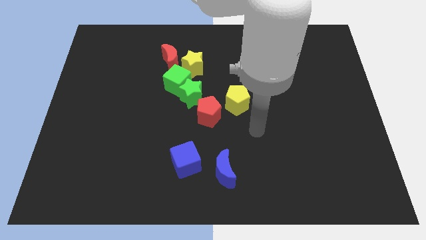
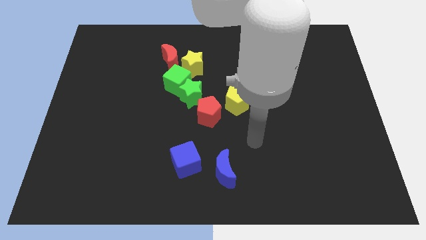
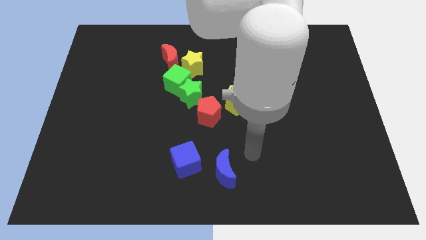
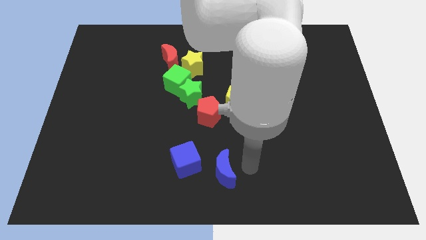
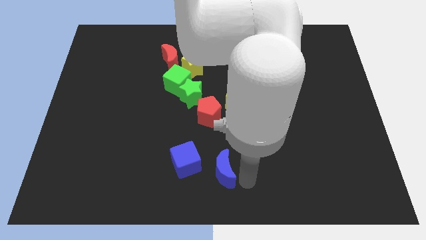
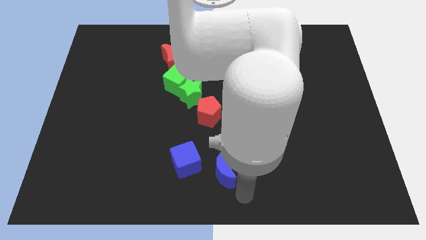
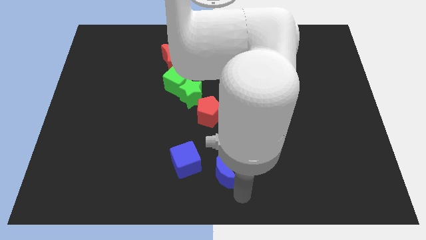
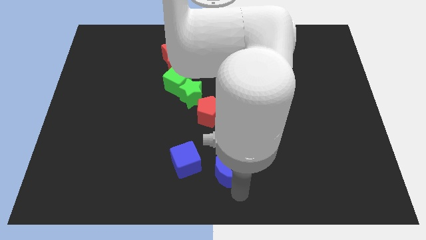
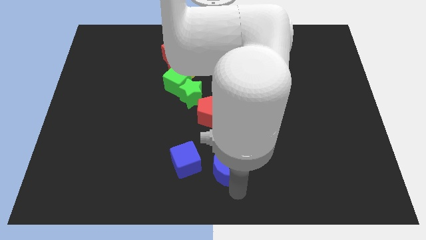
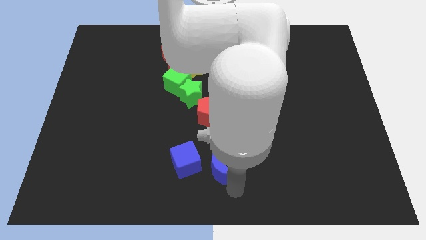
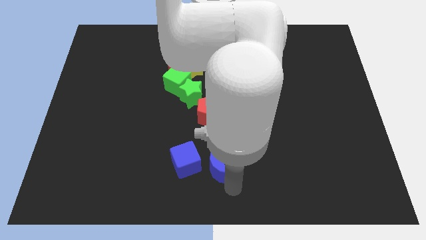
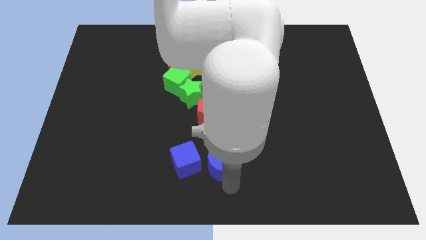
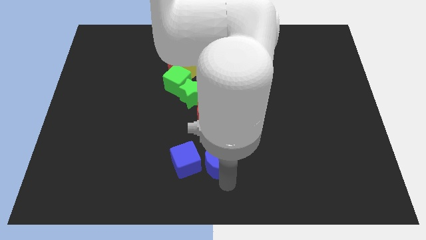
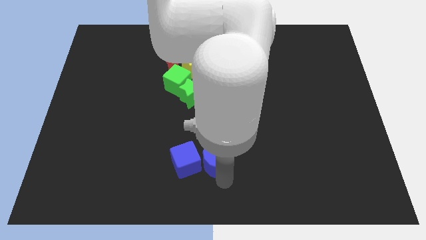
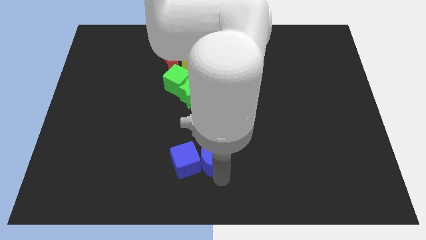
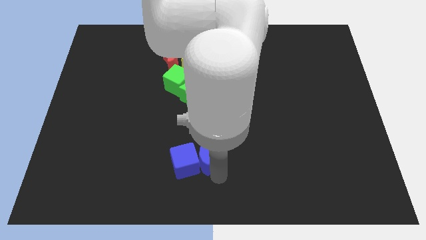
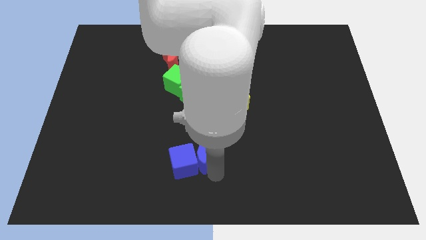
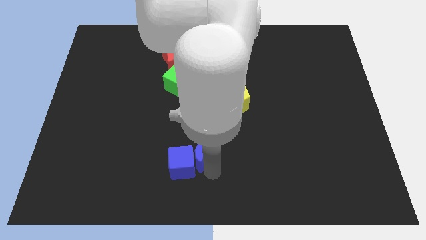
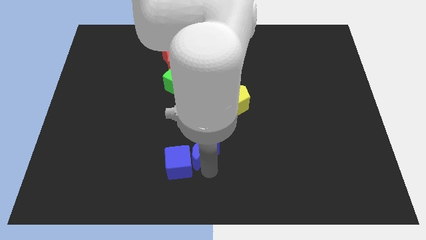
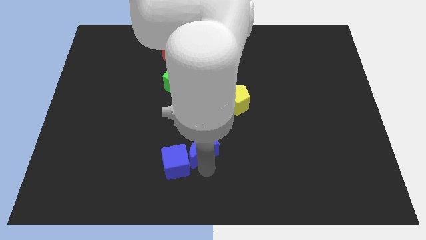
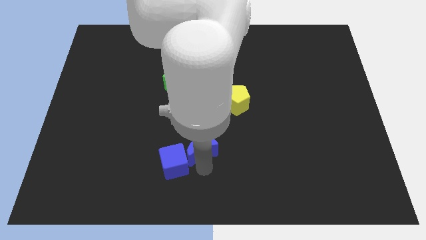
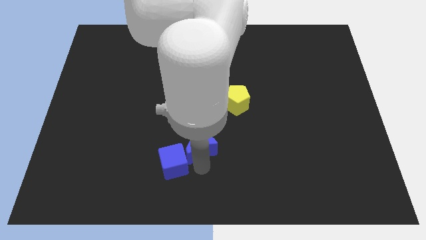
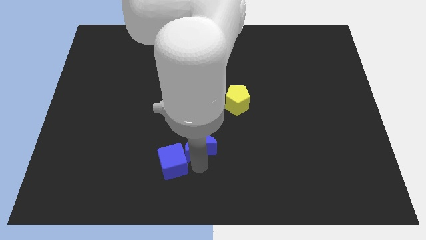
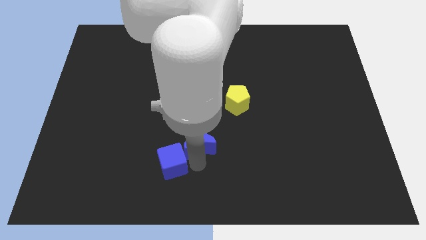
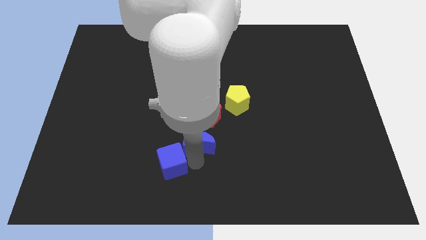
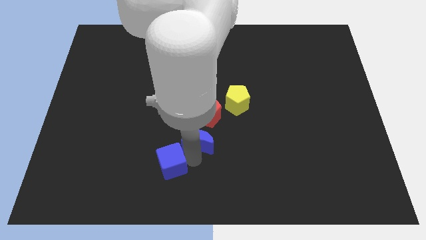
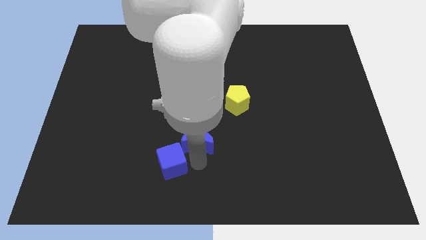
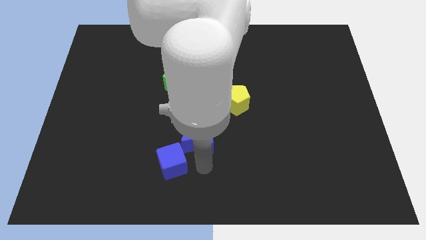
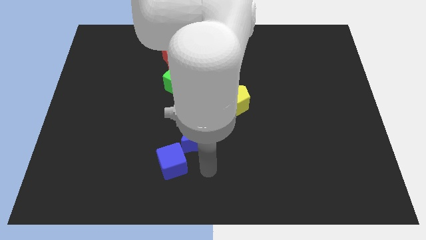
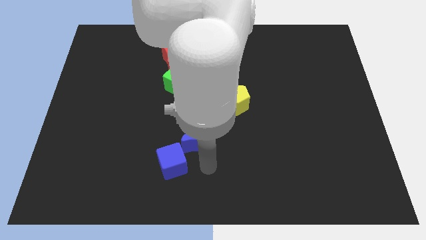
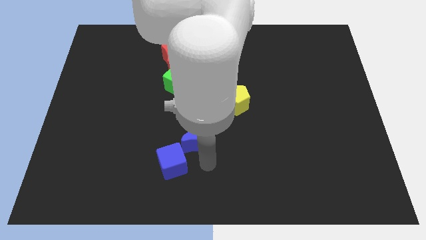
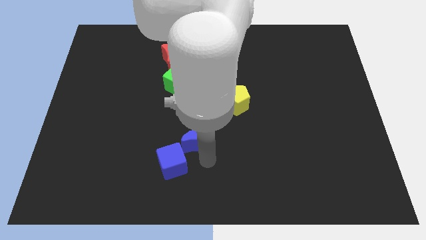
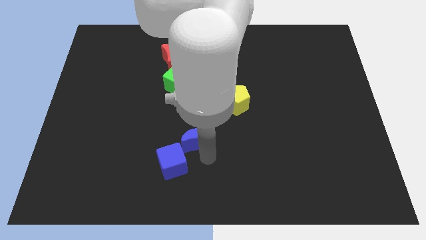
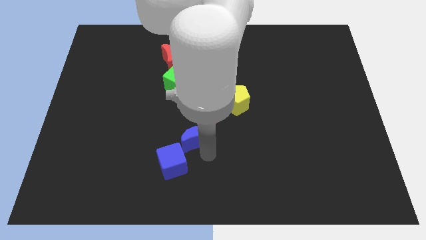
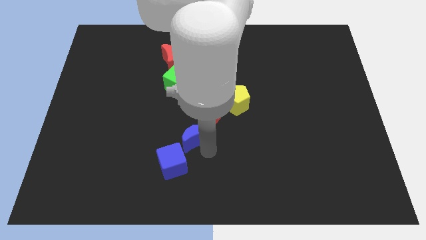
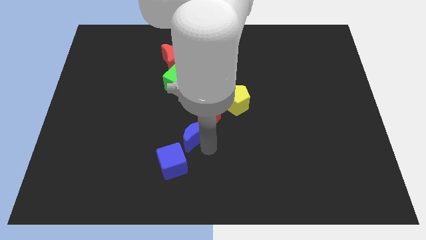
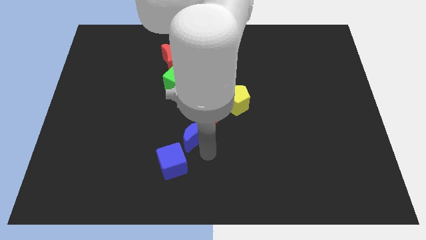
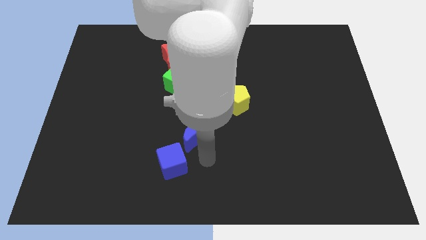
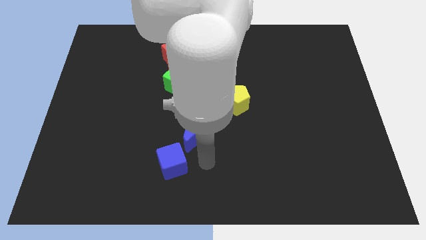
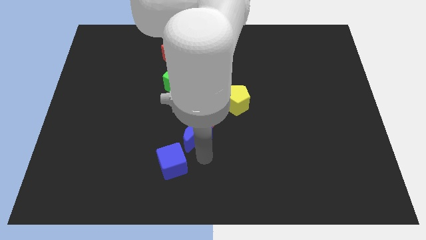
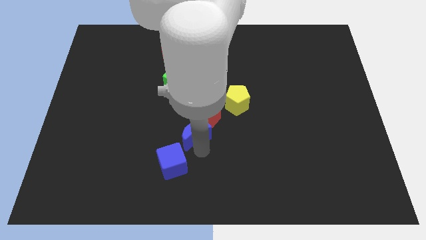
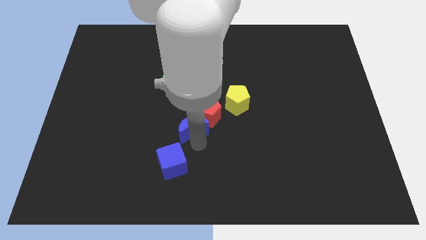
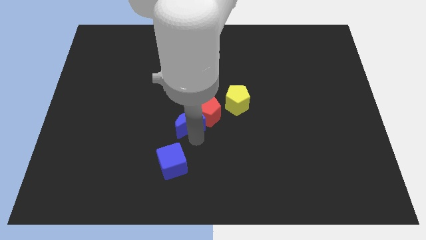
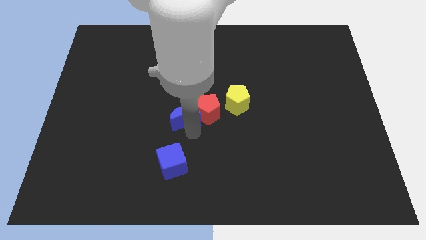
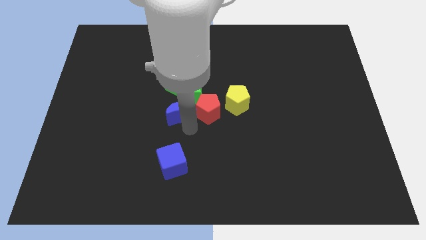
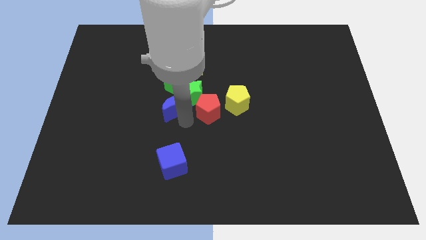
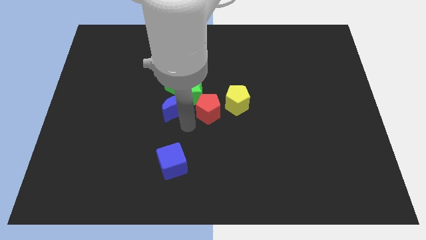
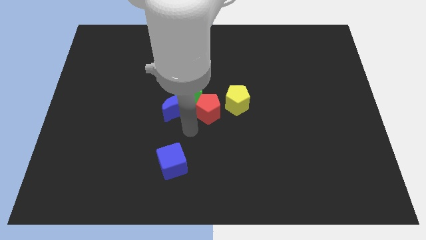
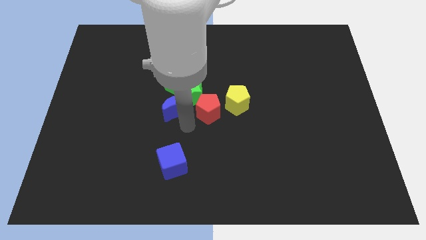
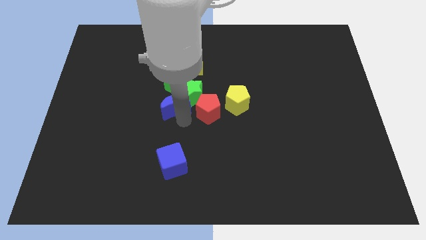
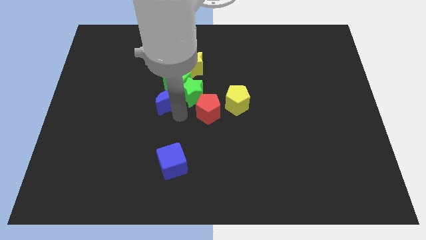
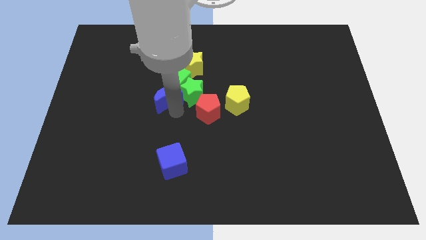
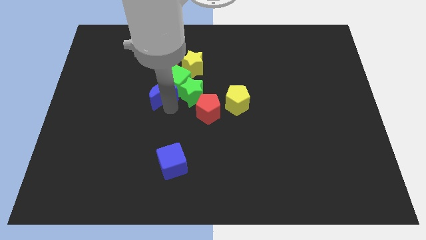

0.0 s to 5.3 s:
put the blue moon to the bottom left of the yellow star

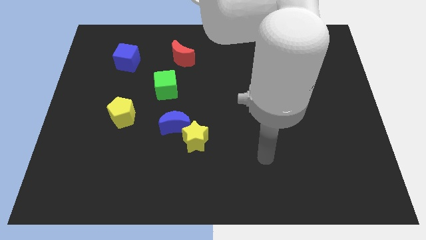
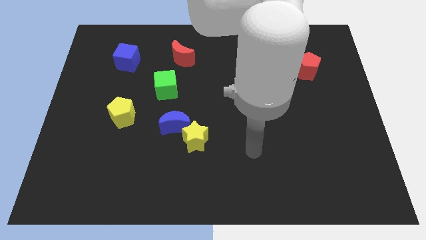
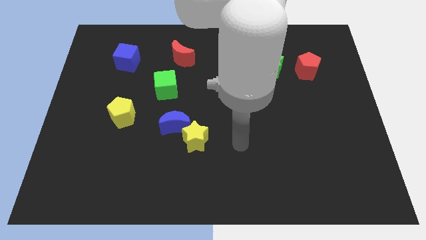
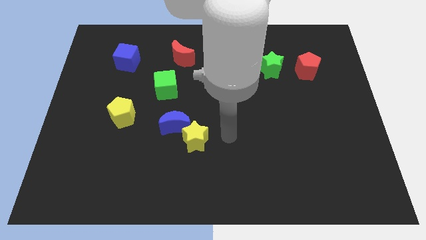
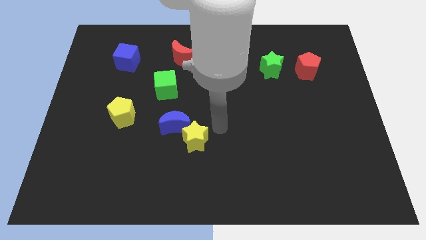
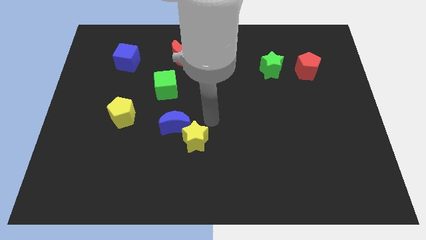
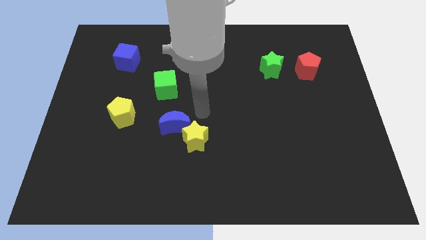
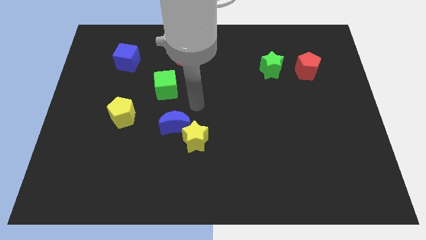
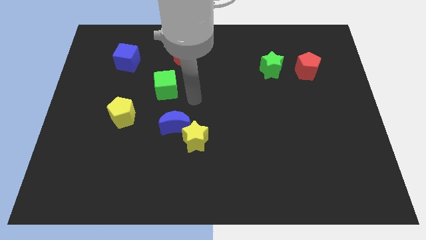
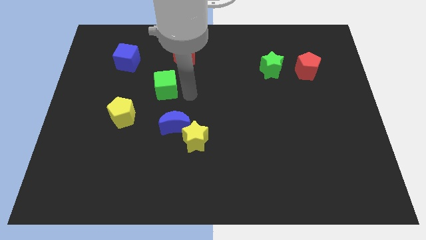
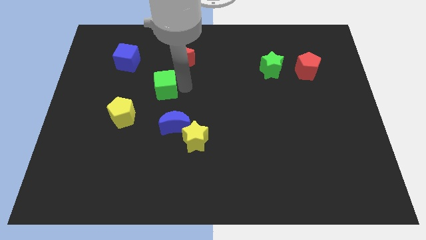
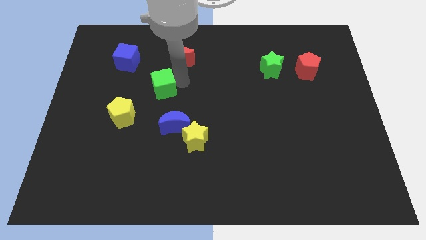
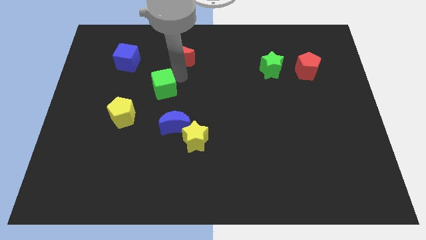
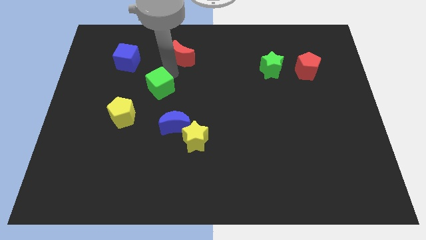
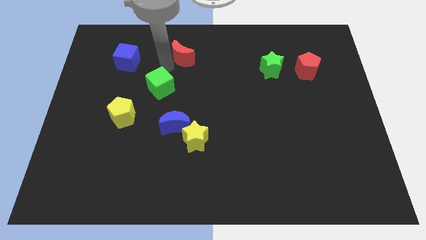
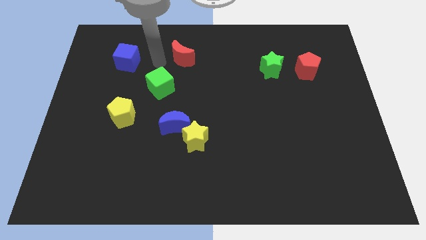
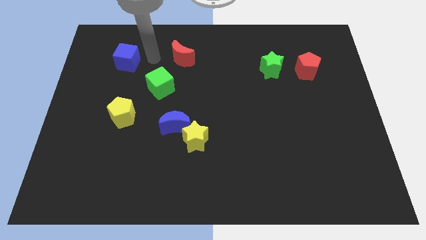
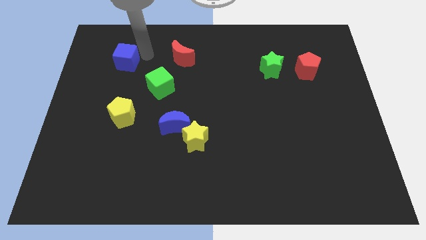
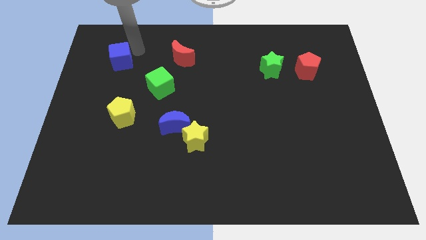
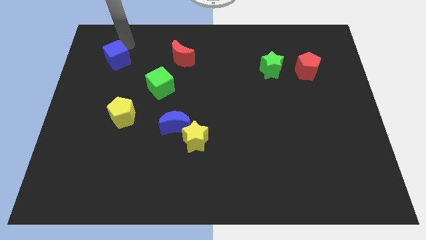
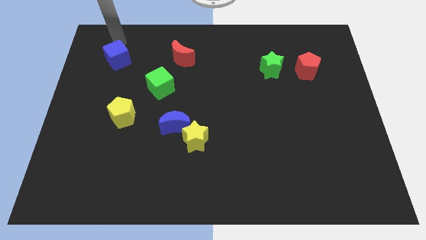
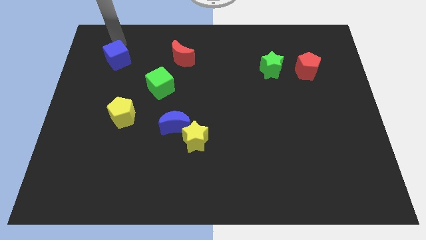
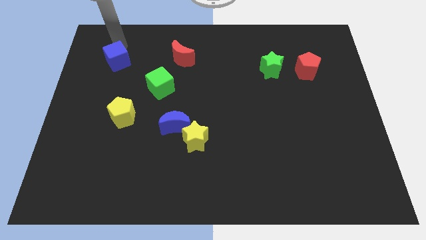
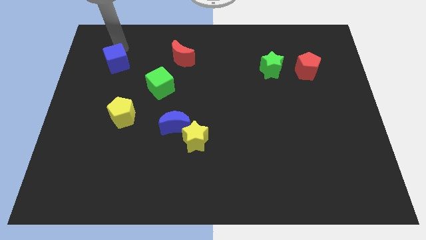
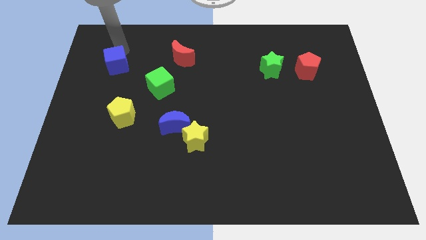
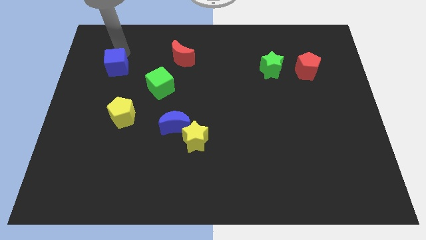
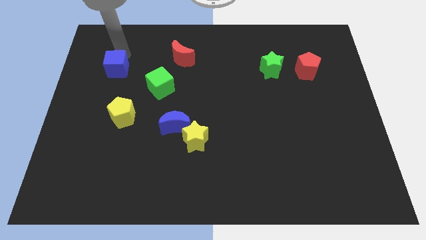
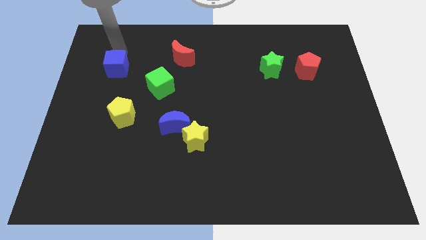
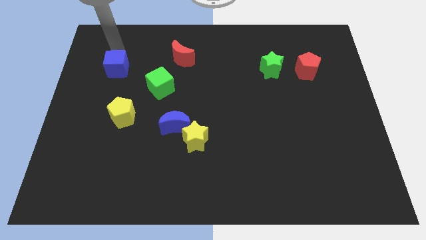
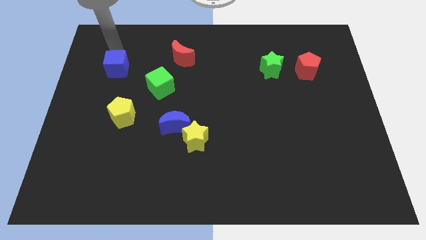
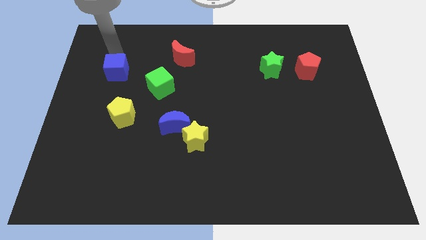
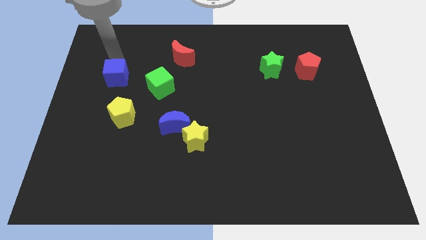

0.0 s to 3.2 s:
put the blue cube just left of the green cube
